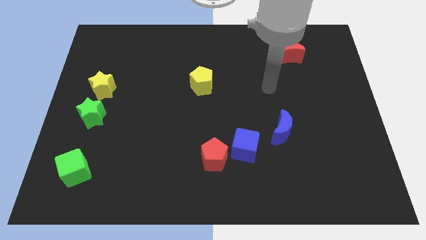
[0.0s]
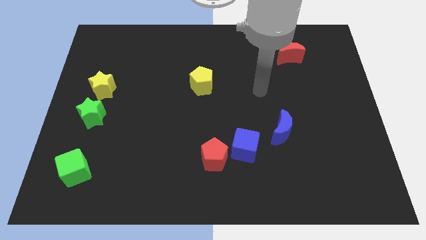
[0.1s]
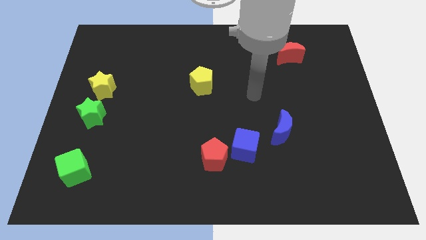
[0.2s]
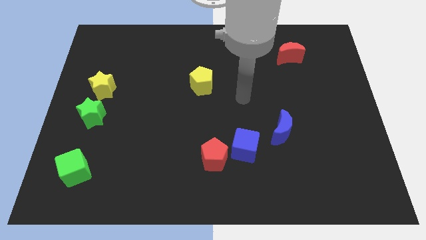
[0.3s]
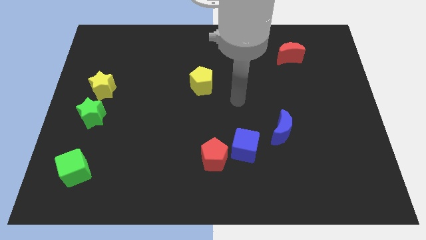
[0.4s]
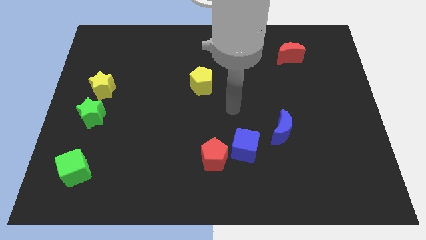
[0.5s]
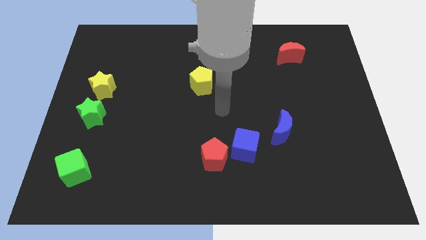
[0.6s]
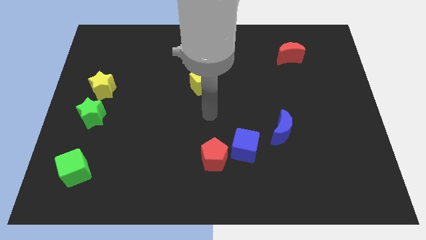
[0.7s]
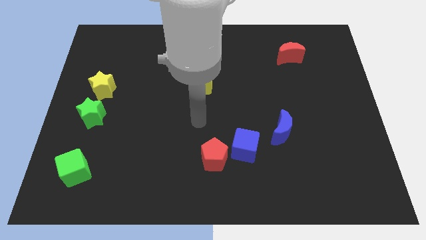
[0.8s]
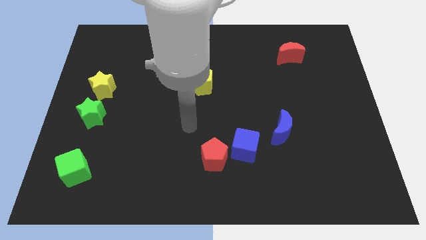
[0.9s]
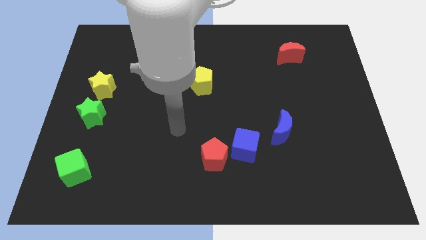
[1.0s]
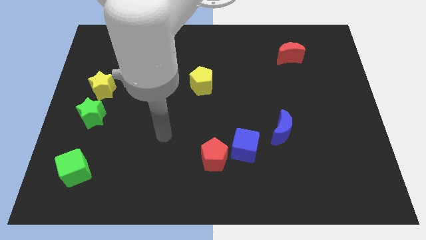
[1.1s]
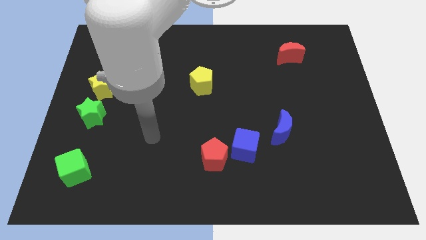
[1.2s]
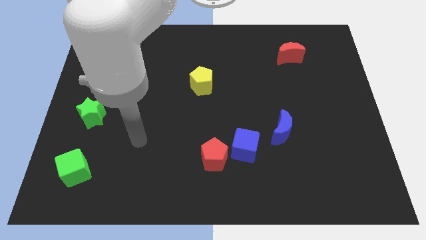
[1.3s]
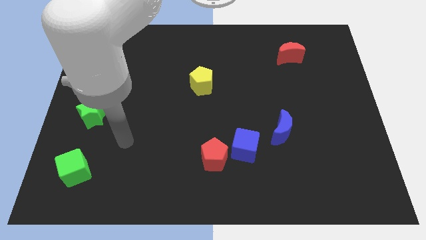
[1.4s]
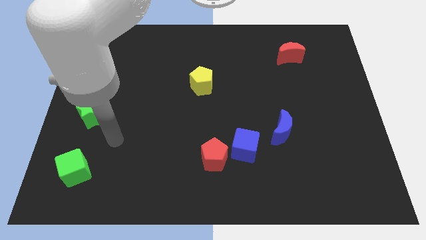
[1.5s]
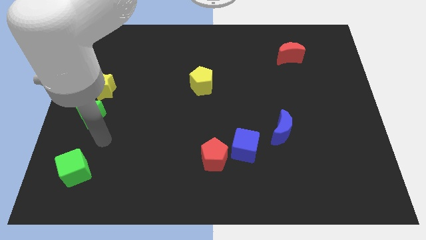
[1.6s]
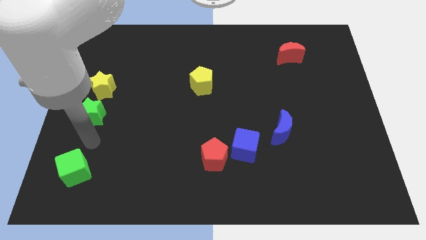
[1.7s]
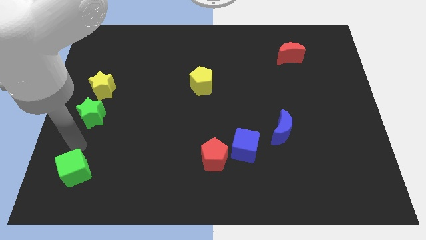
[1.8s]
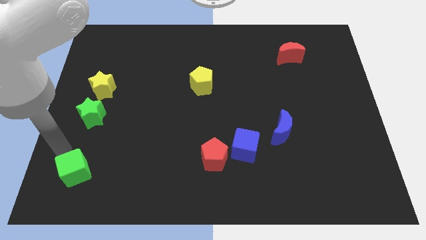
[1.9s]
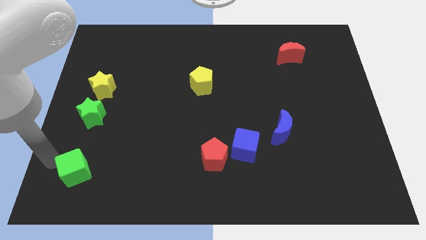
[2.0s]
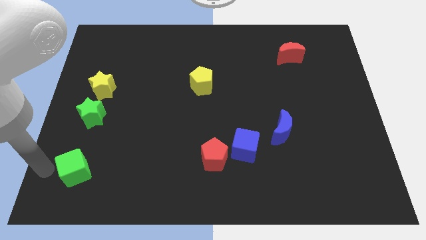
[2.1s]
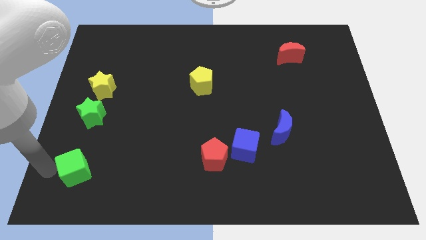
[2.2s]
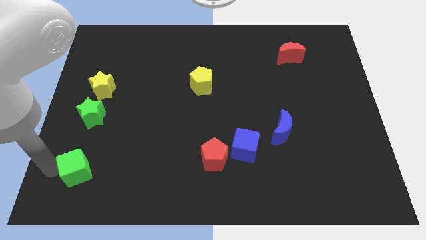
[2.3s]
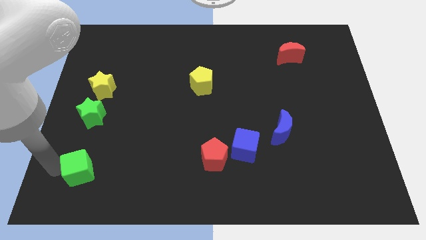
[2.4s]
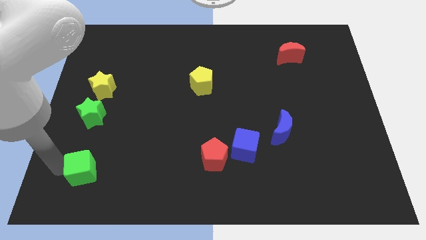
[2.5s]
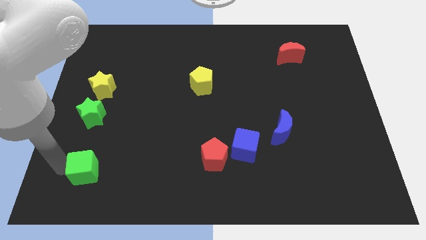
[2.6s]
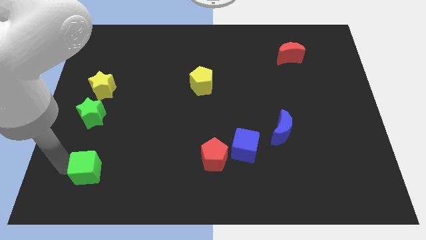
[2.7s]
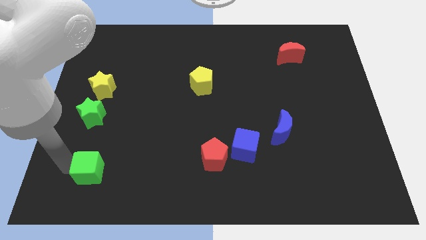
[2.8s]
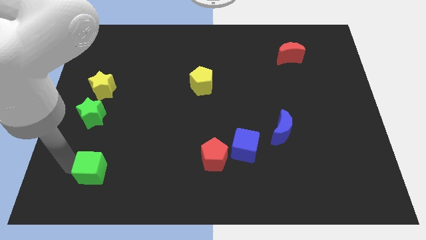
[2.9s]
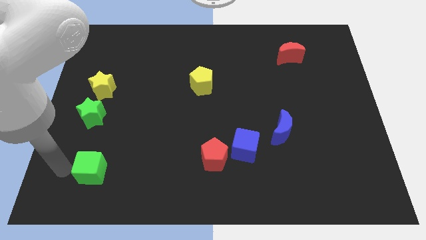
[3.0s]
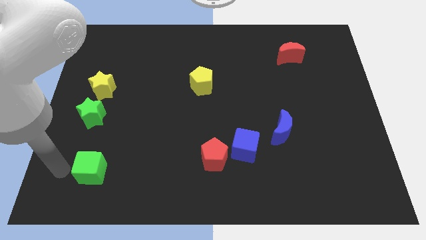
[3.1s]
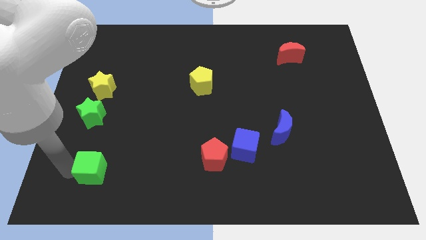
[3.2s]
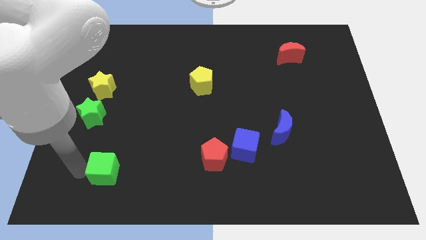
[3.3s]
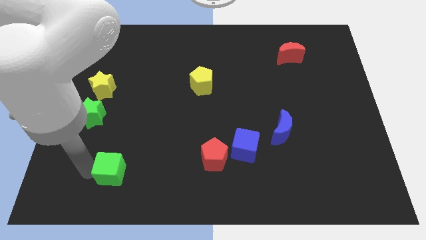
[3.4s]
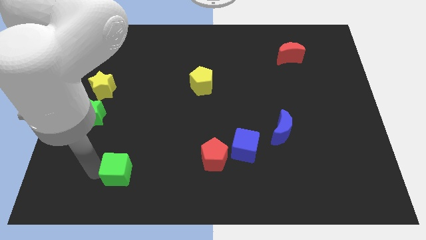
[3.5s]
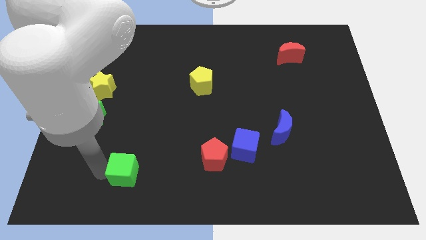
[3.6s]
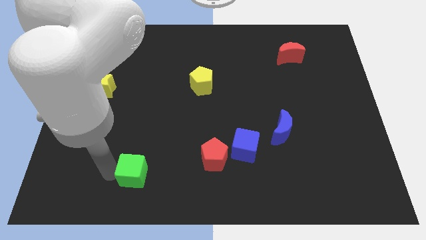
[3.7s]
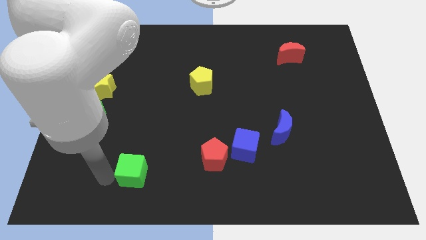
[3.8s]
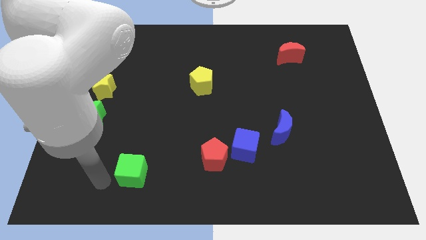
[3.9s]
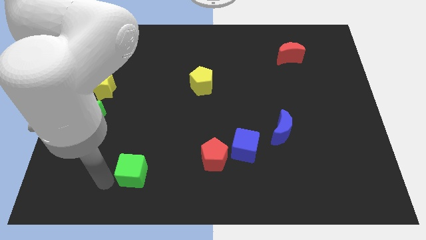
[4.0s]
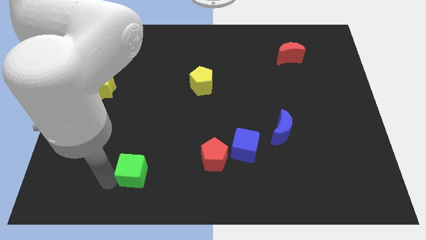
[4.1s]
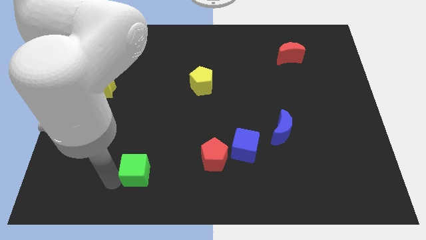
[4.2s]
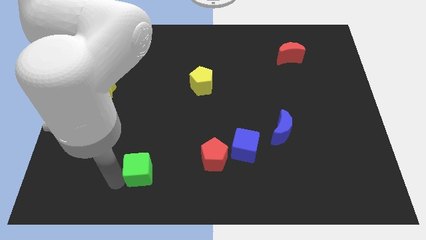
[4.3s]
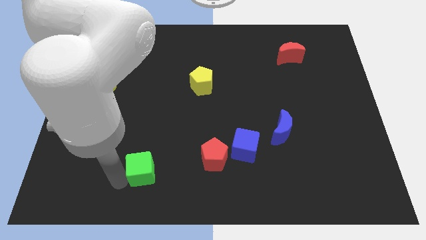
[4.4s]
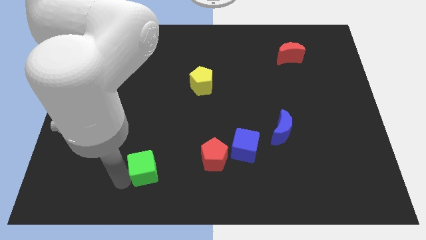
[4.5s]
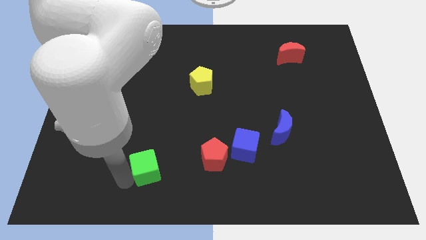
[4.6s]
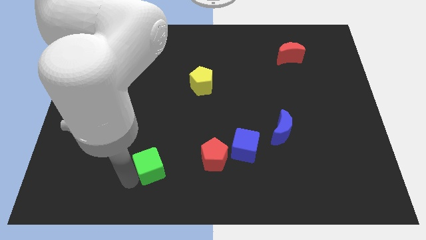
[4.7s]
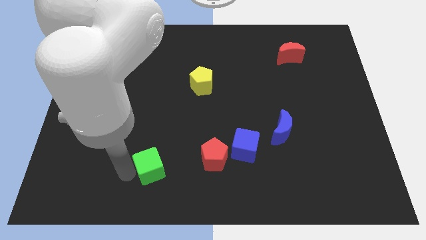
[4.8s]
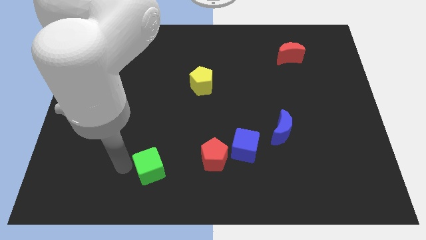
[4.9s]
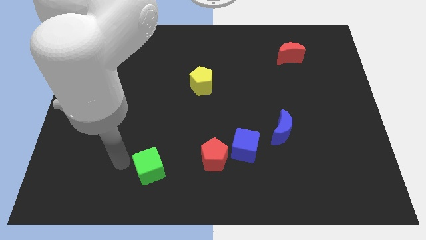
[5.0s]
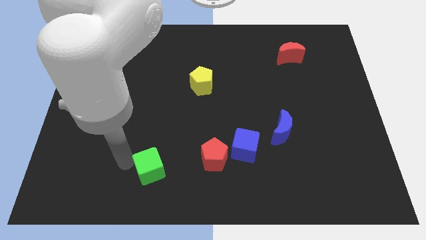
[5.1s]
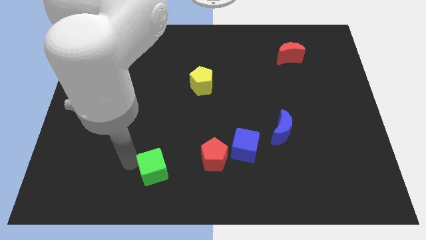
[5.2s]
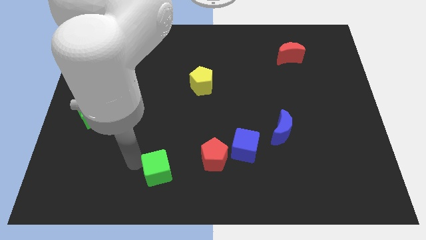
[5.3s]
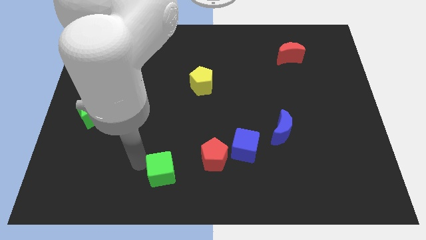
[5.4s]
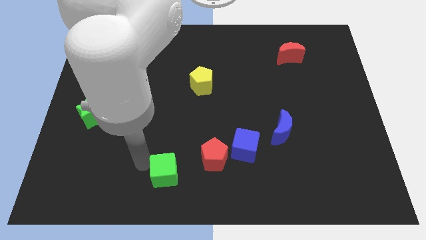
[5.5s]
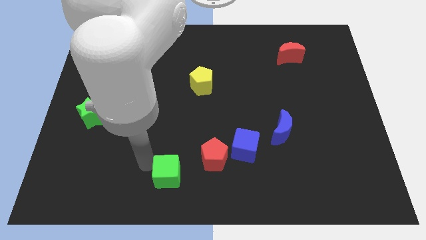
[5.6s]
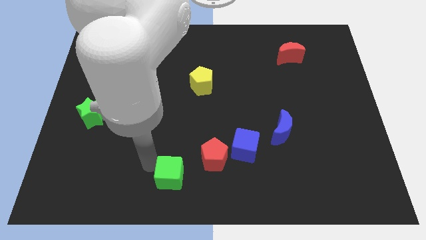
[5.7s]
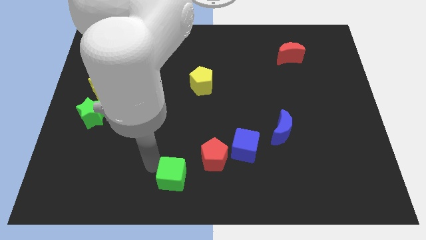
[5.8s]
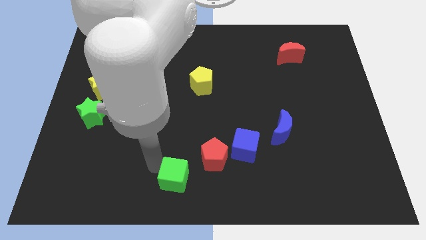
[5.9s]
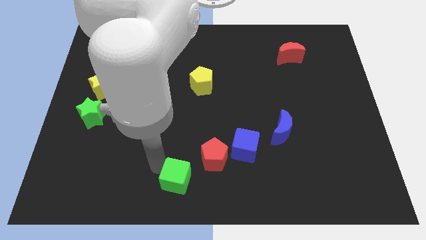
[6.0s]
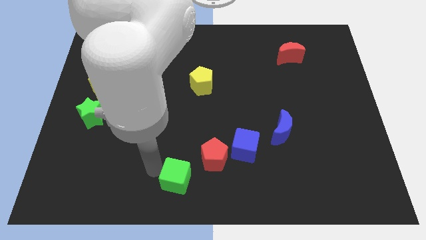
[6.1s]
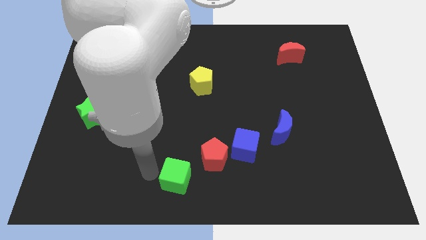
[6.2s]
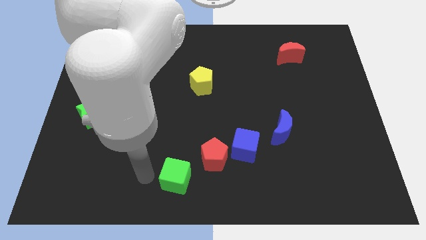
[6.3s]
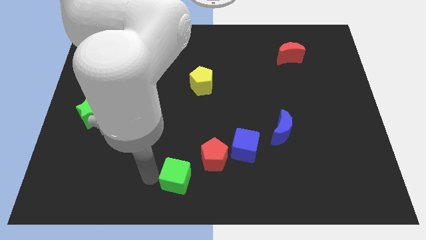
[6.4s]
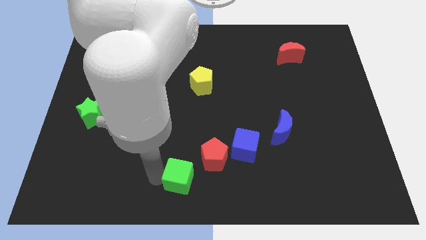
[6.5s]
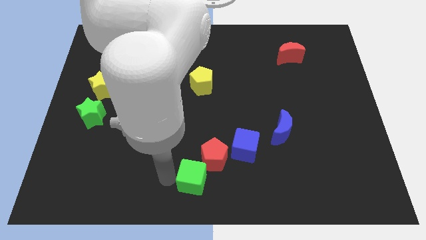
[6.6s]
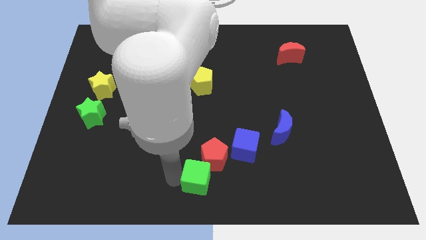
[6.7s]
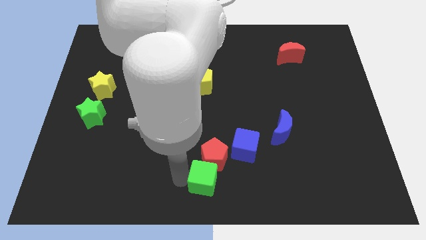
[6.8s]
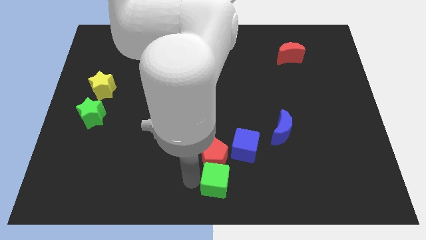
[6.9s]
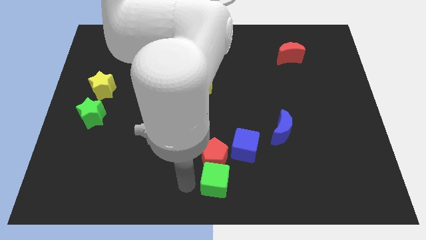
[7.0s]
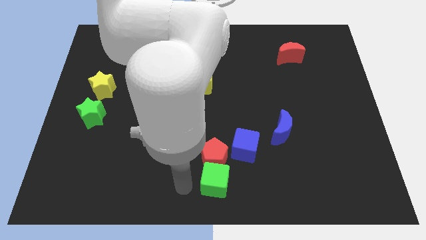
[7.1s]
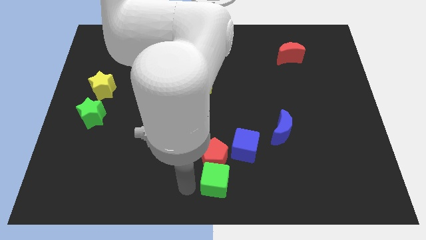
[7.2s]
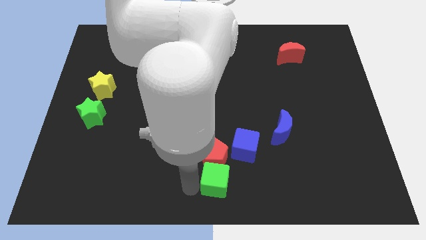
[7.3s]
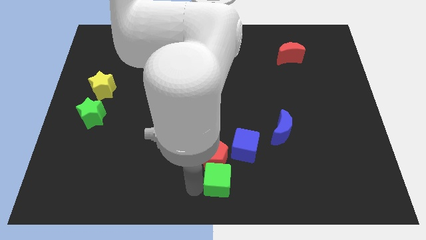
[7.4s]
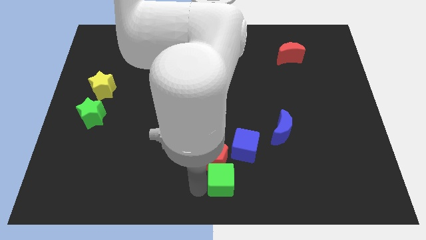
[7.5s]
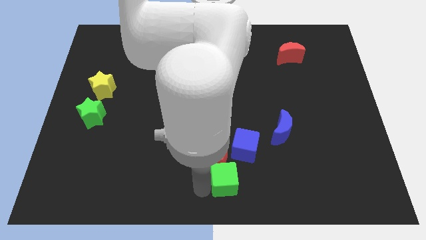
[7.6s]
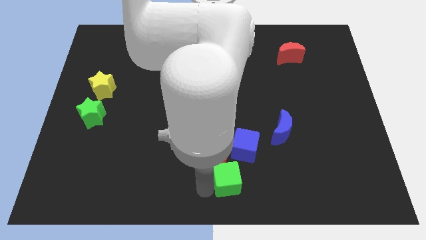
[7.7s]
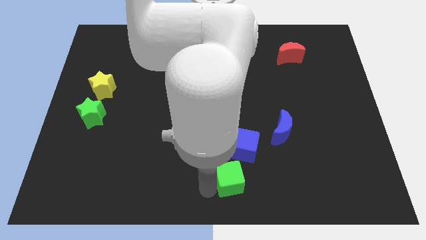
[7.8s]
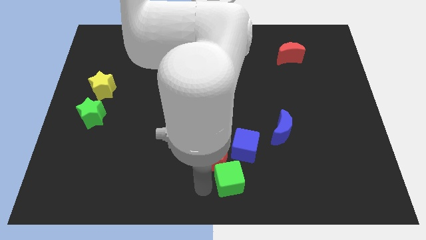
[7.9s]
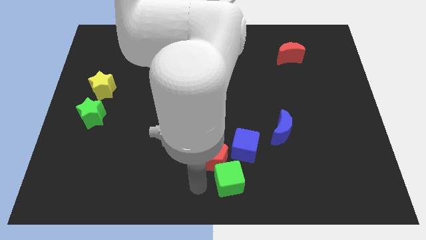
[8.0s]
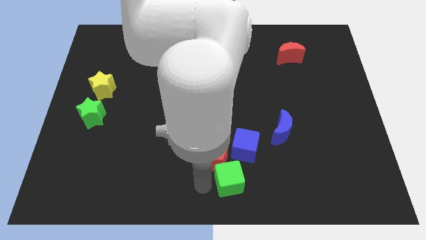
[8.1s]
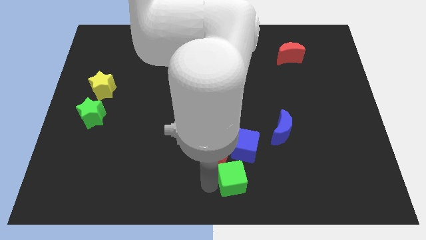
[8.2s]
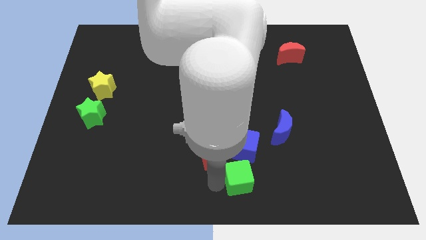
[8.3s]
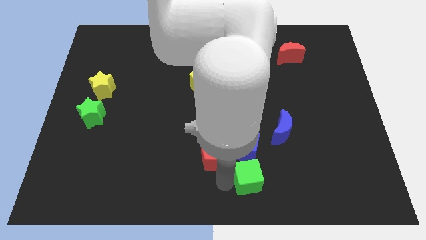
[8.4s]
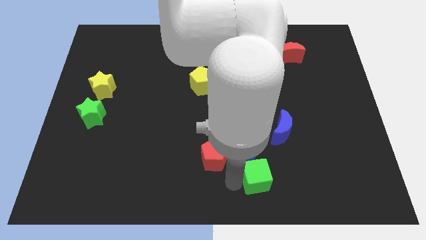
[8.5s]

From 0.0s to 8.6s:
move the green cube diagonally down and to the right of the blue cube
